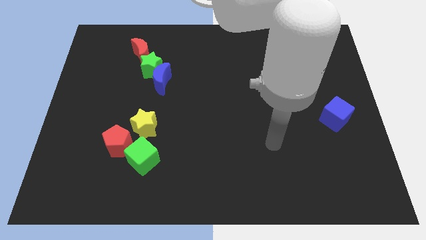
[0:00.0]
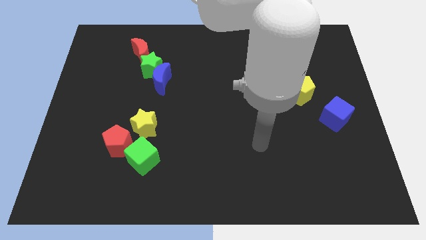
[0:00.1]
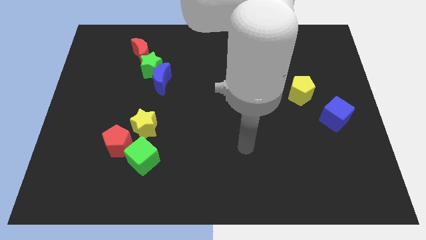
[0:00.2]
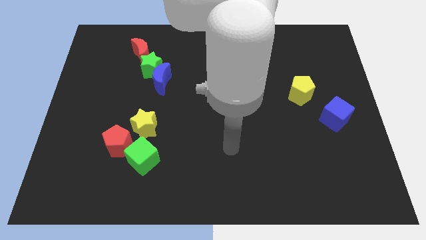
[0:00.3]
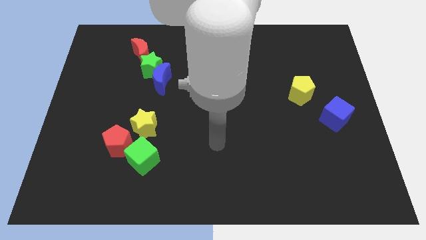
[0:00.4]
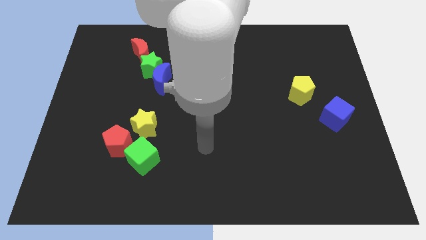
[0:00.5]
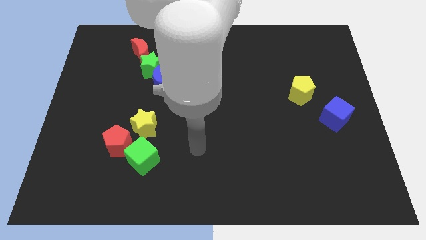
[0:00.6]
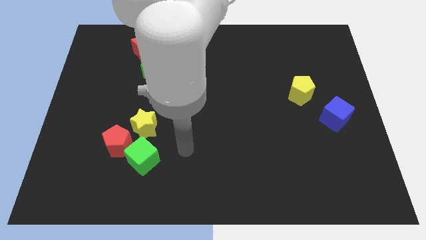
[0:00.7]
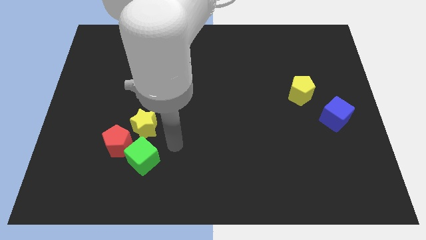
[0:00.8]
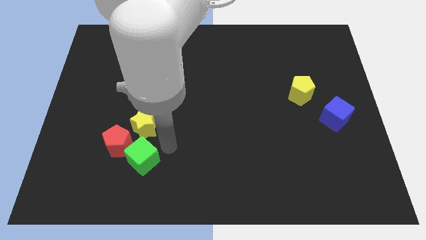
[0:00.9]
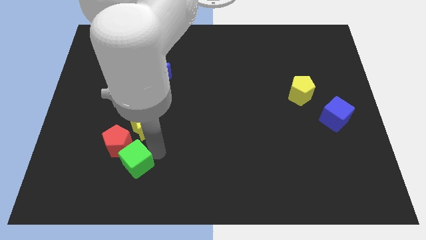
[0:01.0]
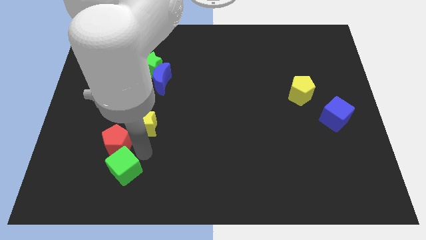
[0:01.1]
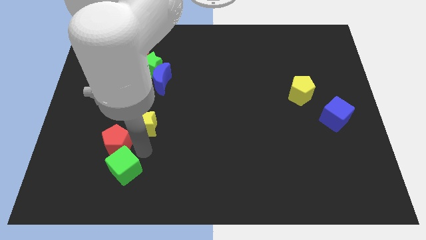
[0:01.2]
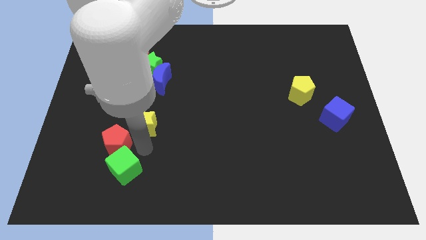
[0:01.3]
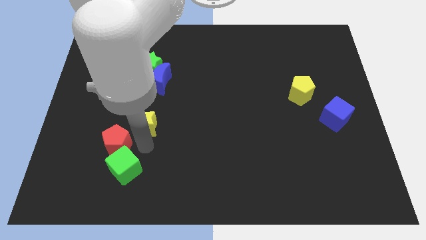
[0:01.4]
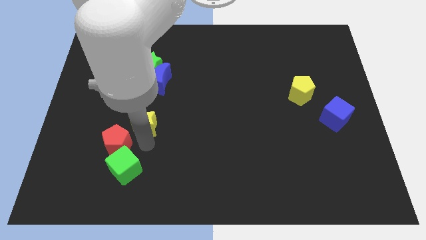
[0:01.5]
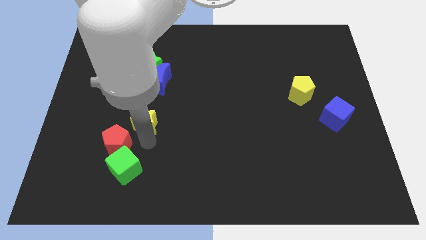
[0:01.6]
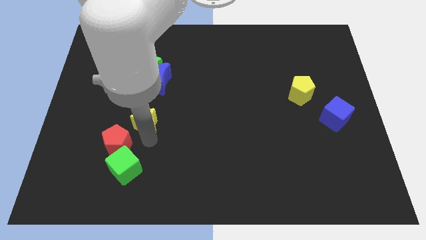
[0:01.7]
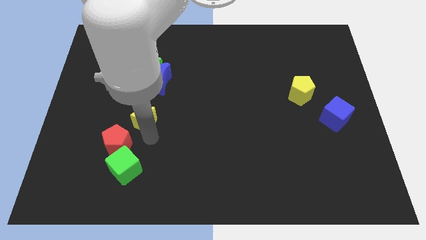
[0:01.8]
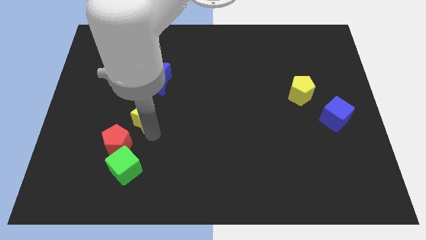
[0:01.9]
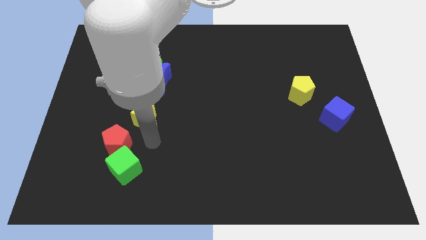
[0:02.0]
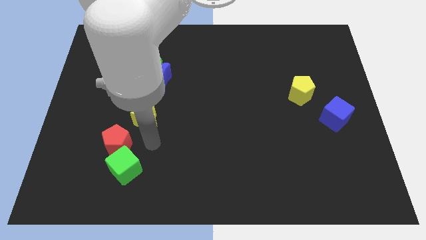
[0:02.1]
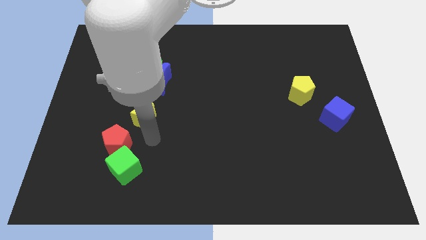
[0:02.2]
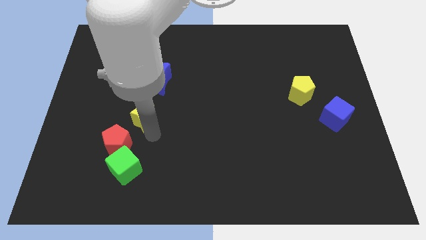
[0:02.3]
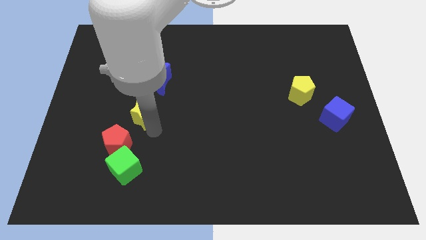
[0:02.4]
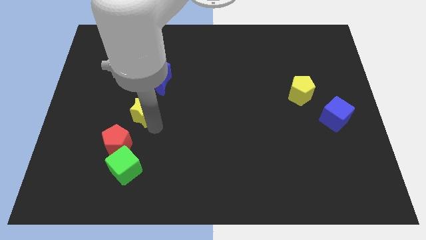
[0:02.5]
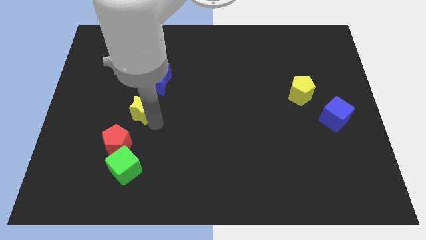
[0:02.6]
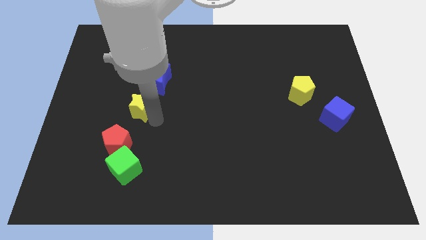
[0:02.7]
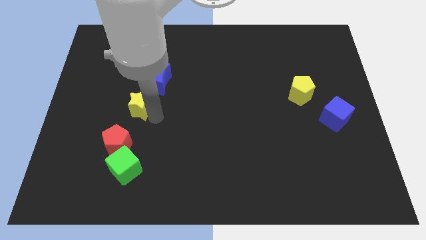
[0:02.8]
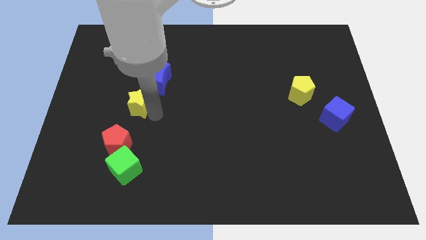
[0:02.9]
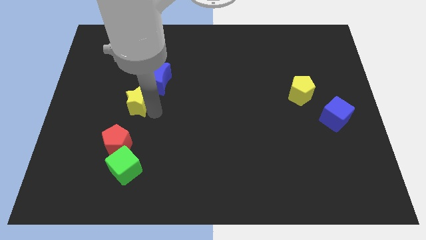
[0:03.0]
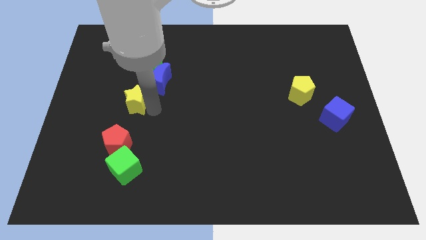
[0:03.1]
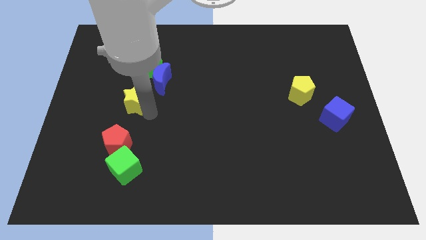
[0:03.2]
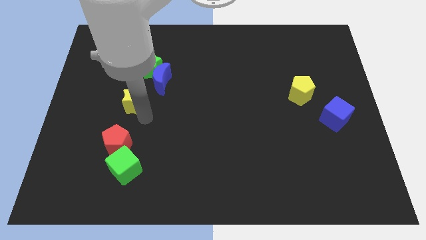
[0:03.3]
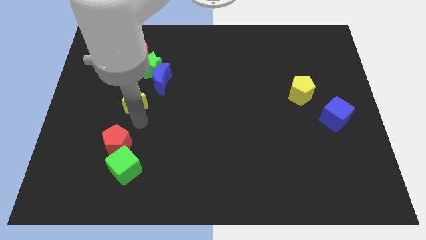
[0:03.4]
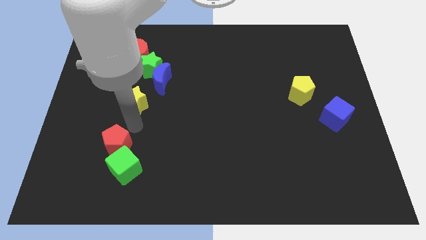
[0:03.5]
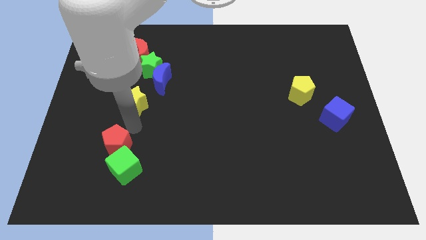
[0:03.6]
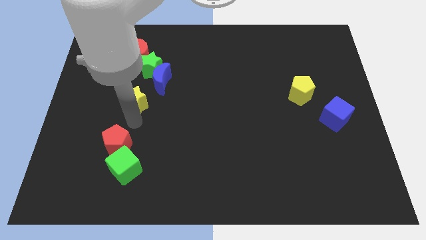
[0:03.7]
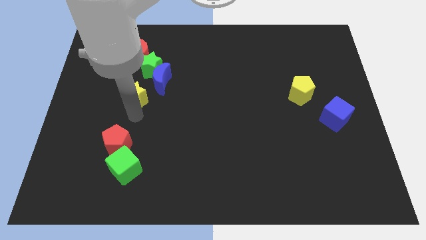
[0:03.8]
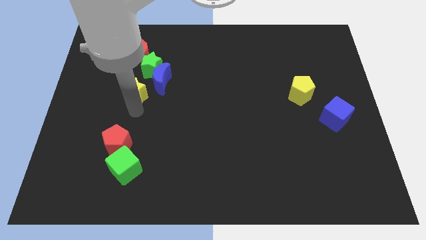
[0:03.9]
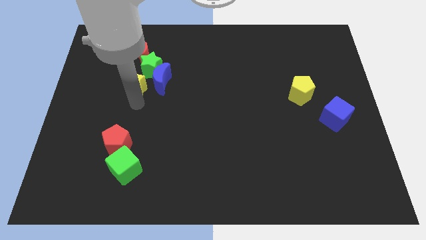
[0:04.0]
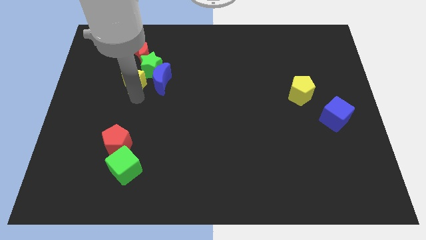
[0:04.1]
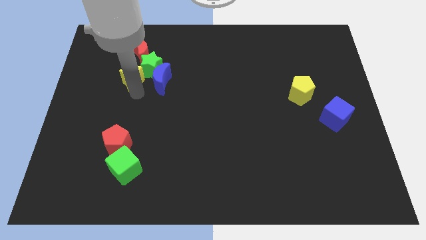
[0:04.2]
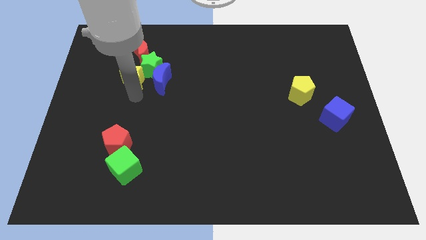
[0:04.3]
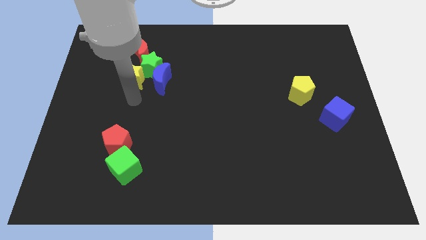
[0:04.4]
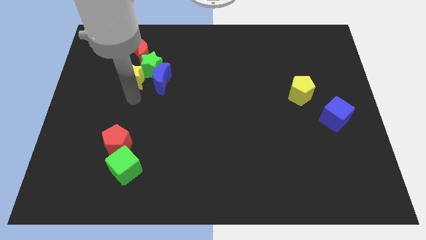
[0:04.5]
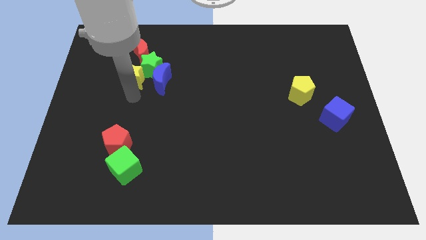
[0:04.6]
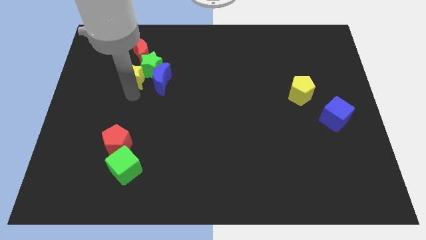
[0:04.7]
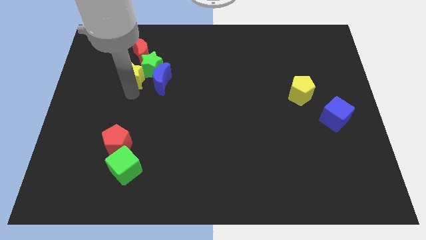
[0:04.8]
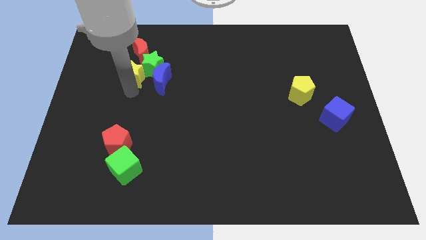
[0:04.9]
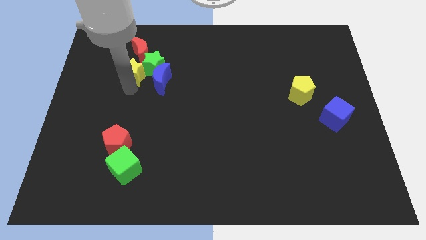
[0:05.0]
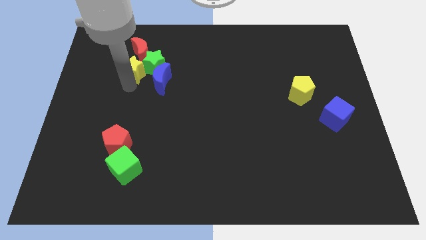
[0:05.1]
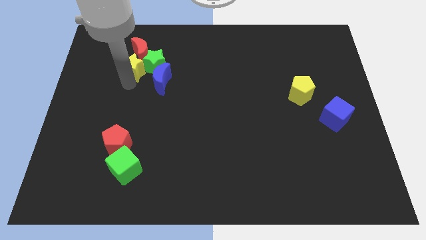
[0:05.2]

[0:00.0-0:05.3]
move the yellow star to the red moon

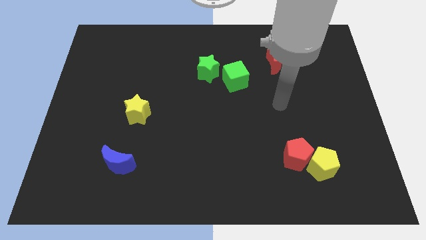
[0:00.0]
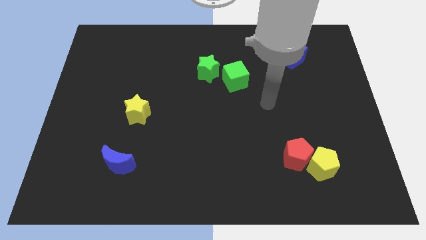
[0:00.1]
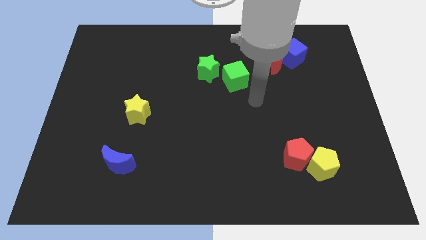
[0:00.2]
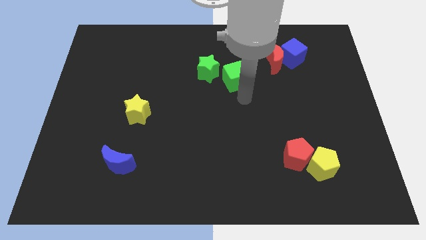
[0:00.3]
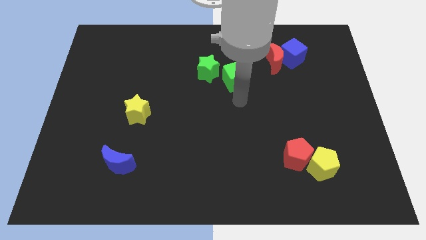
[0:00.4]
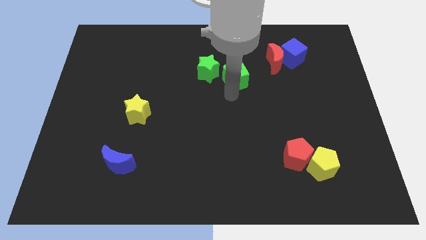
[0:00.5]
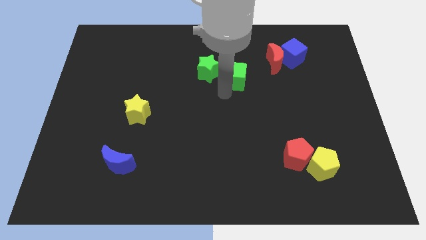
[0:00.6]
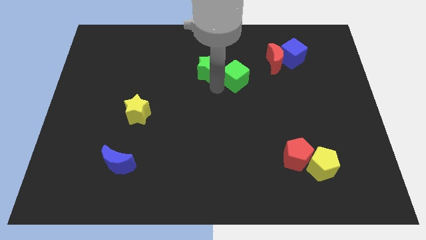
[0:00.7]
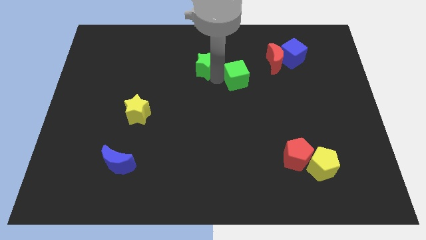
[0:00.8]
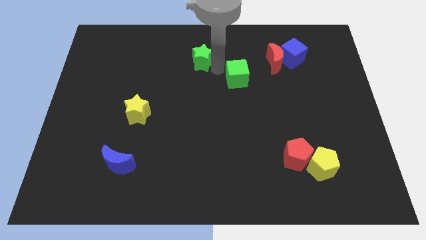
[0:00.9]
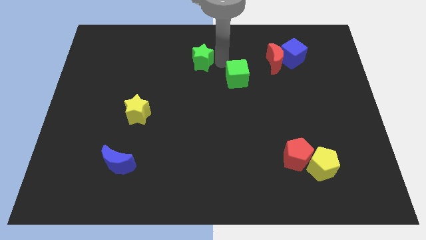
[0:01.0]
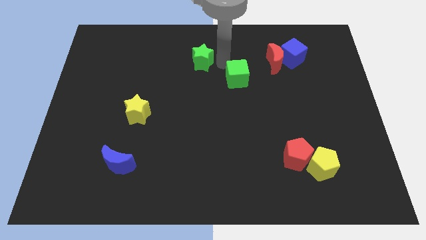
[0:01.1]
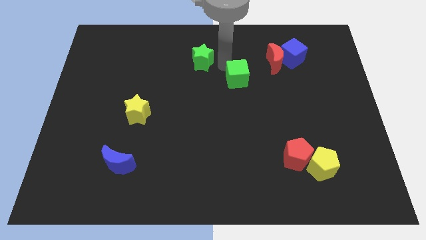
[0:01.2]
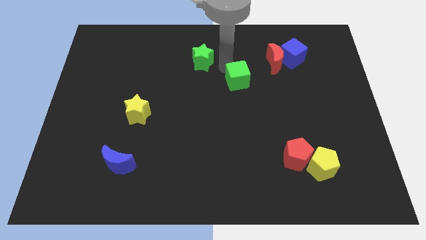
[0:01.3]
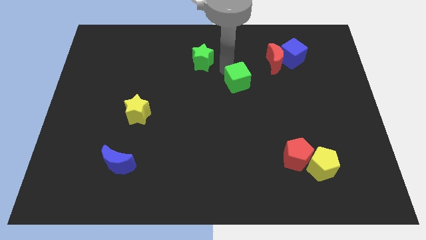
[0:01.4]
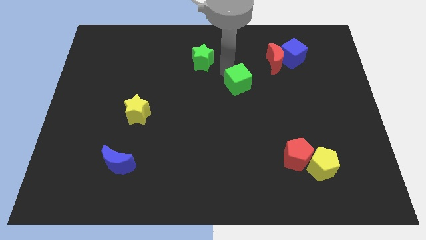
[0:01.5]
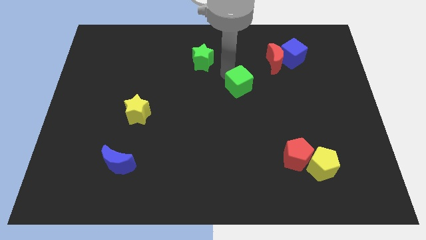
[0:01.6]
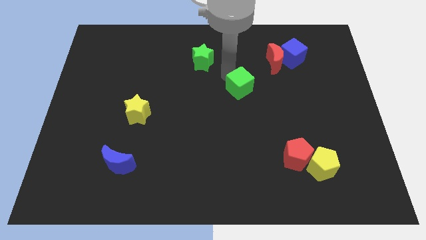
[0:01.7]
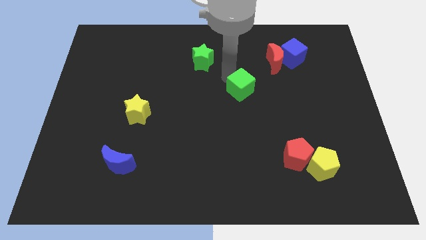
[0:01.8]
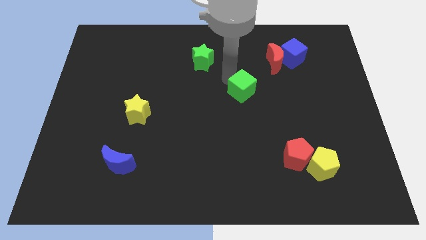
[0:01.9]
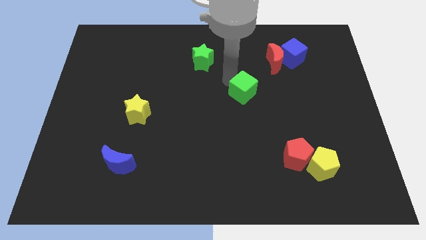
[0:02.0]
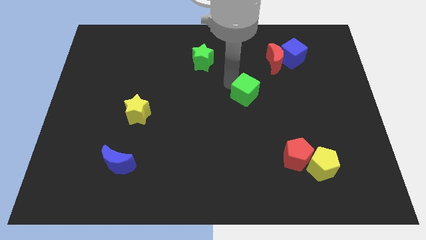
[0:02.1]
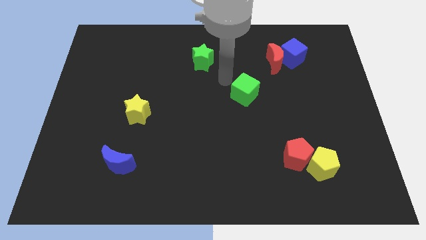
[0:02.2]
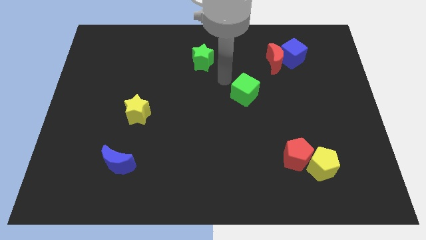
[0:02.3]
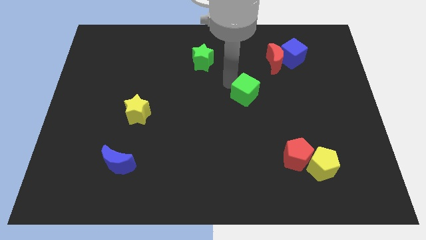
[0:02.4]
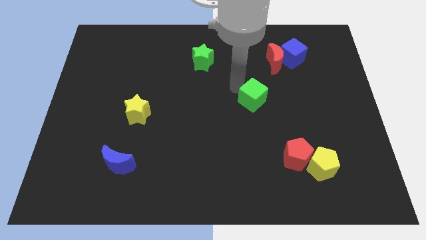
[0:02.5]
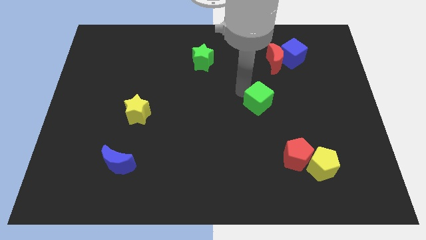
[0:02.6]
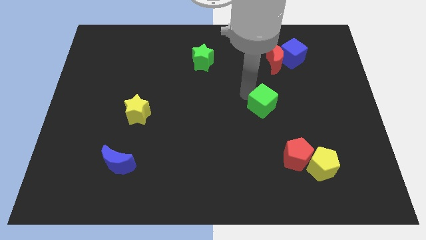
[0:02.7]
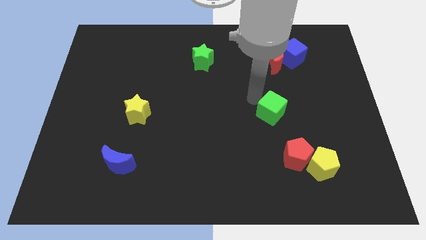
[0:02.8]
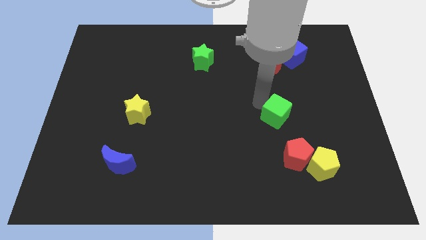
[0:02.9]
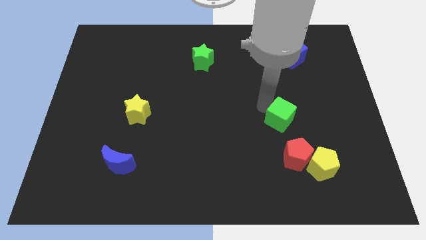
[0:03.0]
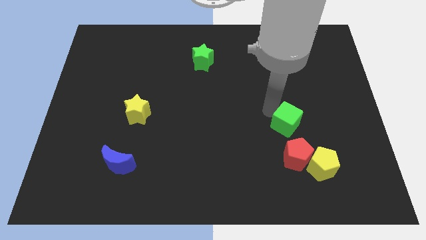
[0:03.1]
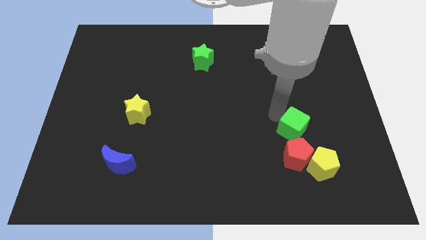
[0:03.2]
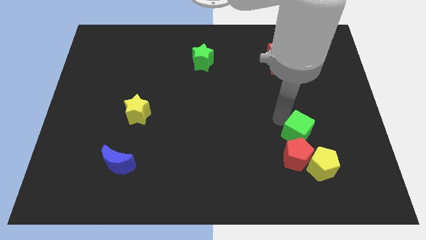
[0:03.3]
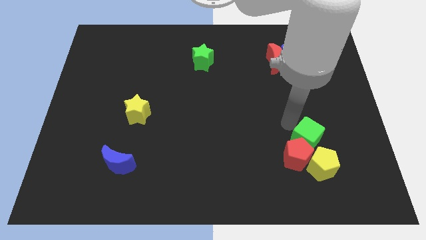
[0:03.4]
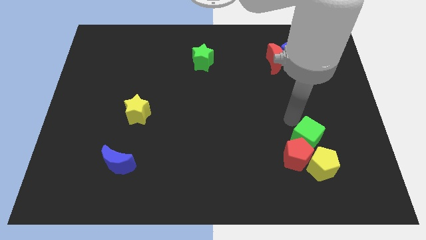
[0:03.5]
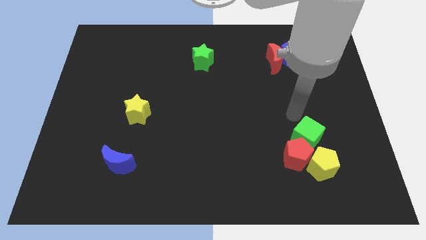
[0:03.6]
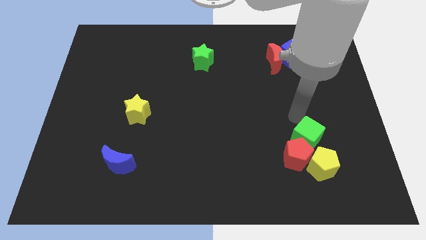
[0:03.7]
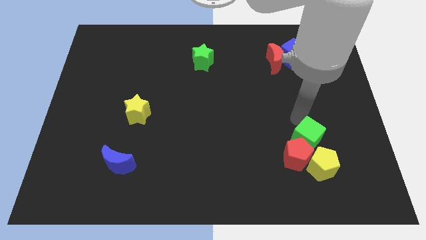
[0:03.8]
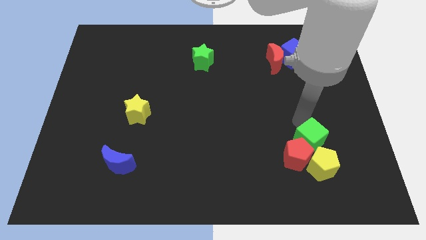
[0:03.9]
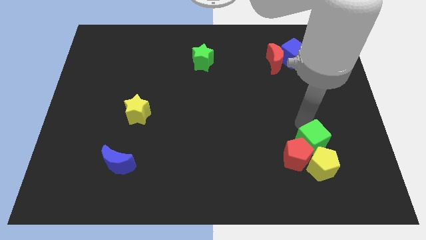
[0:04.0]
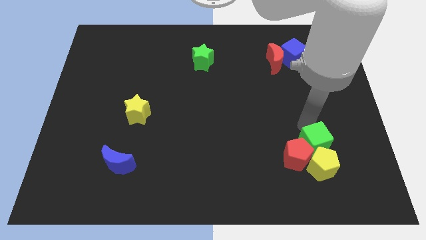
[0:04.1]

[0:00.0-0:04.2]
put the green cube close to the yellow pentagon
